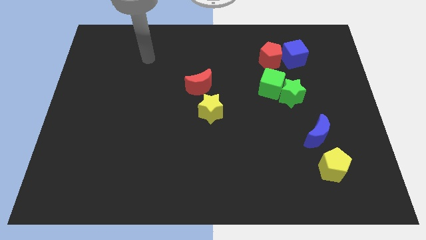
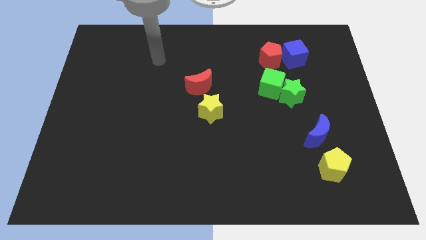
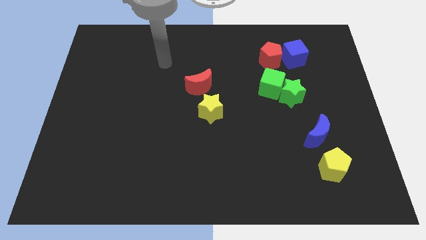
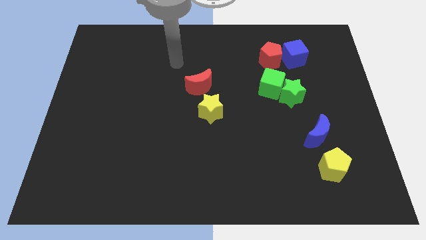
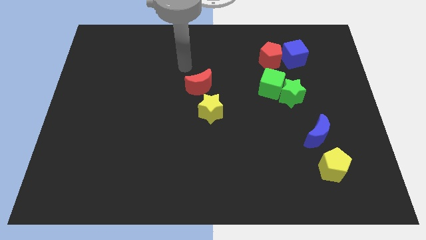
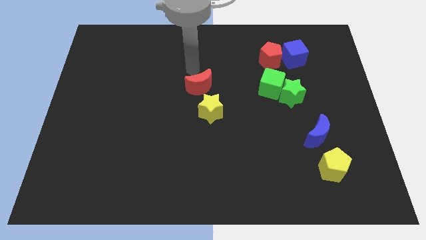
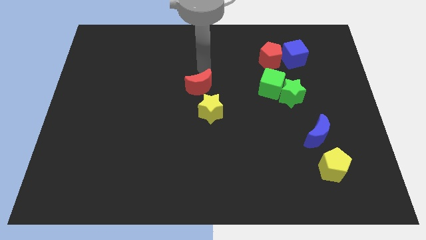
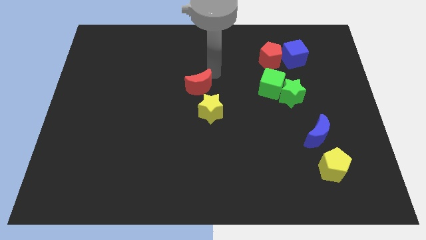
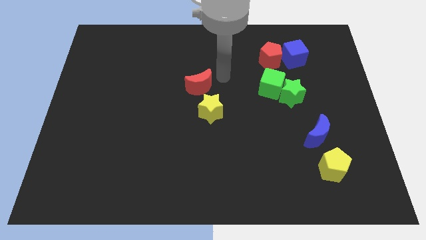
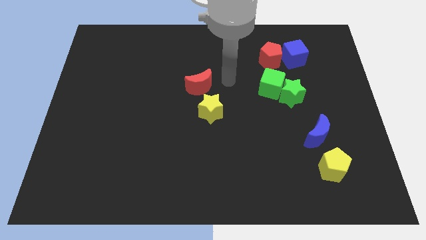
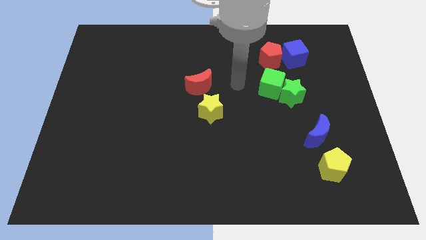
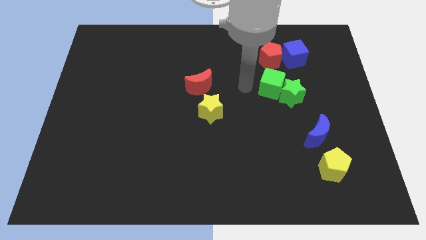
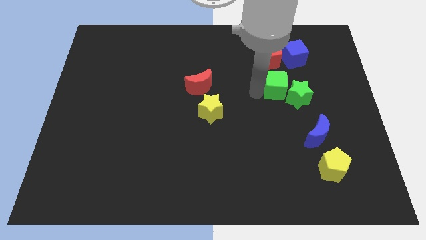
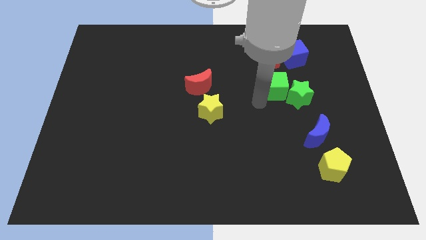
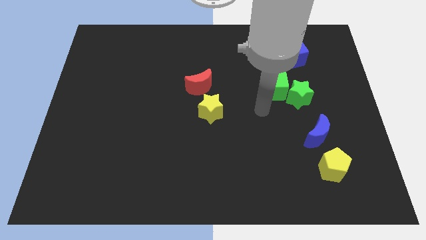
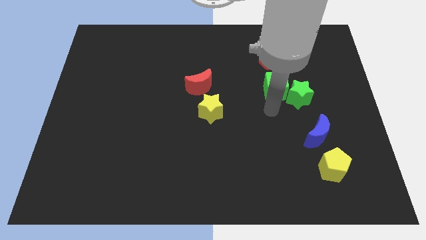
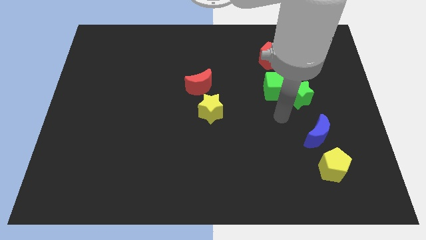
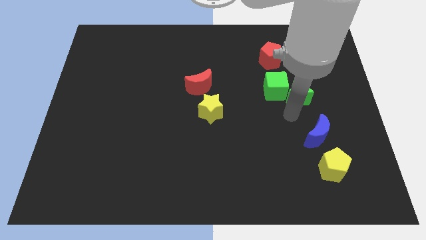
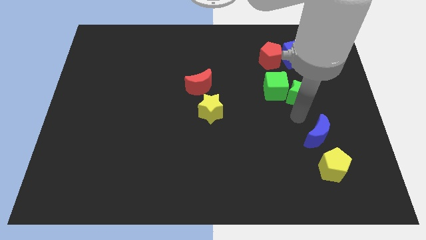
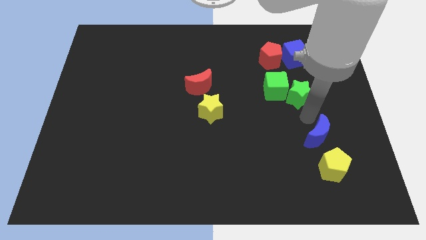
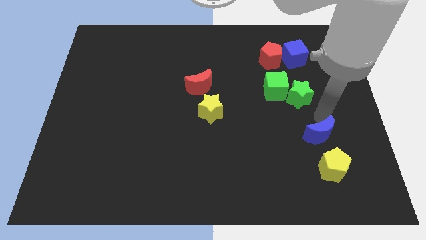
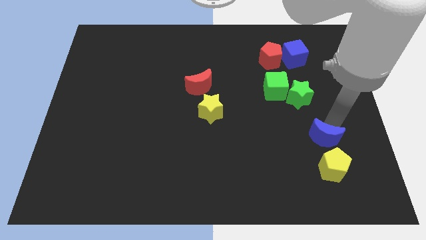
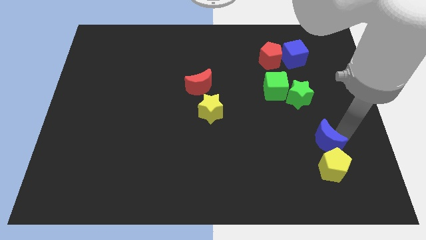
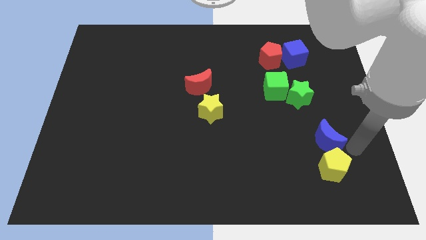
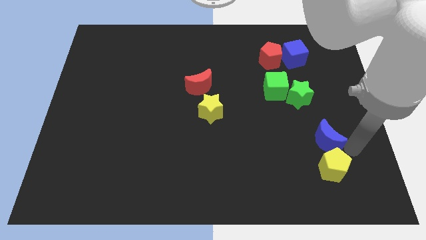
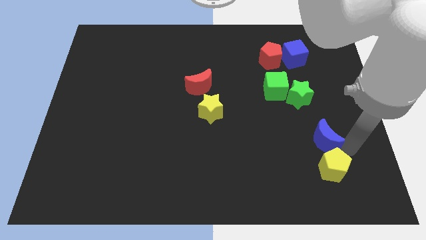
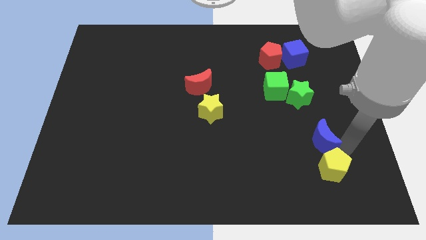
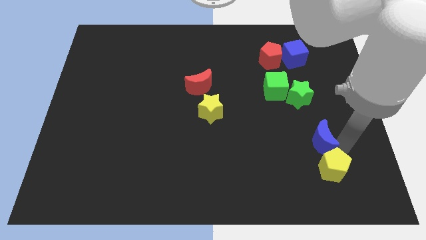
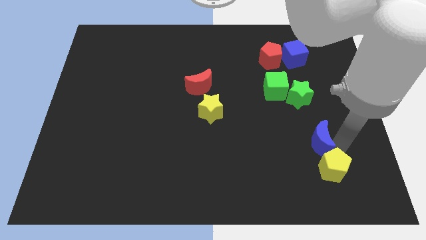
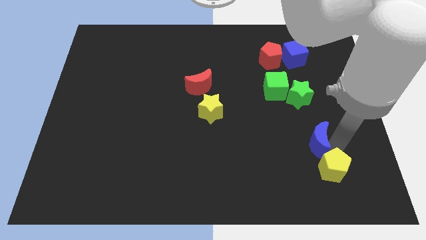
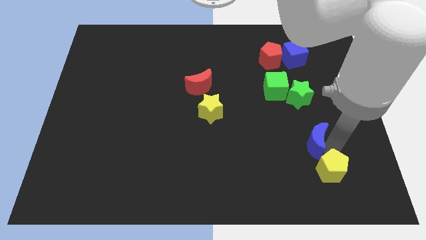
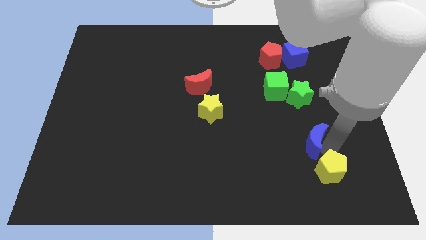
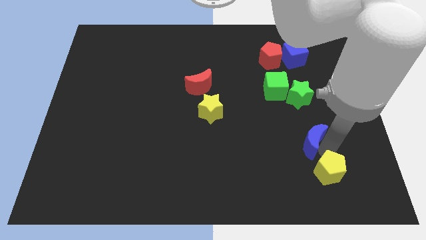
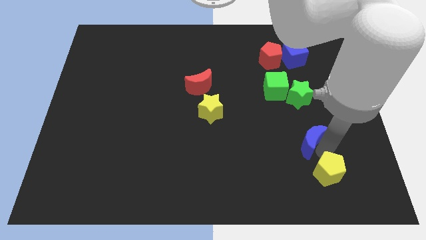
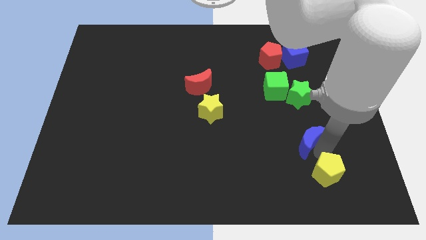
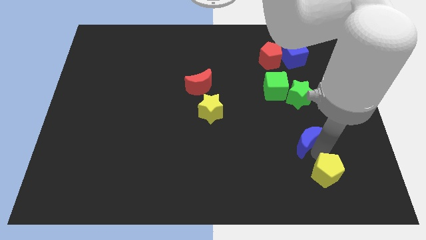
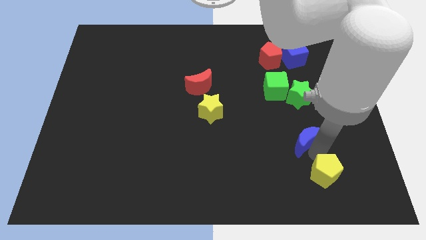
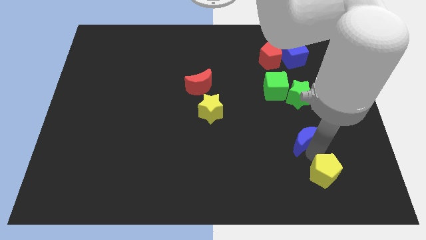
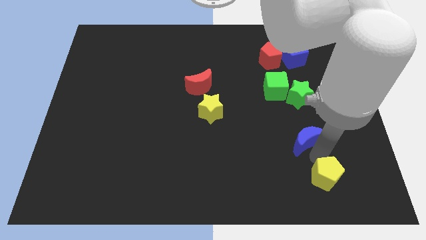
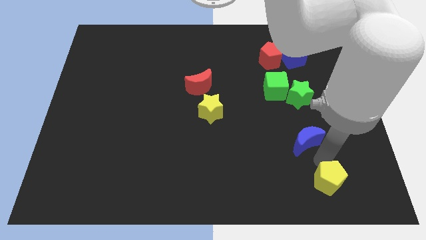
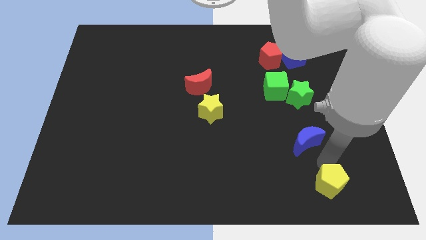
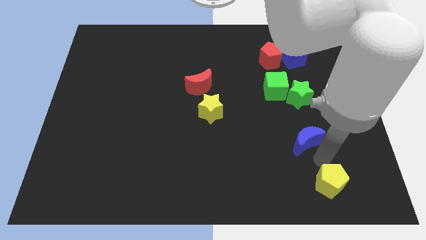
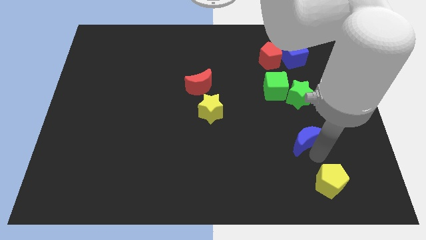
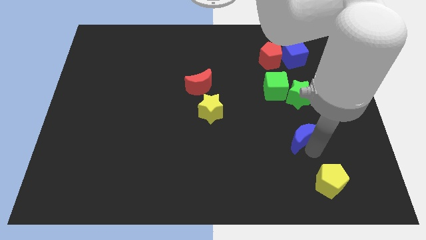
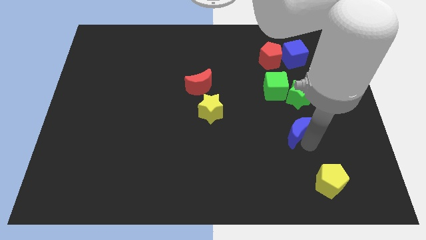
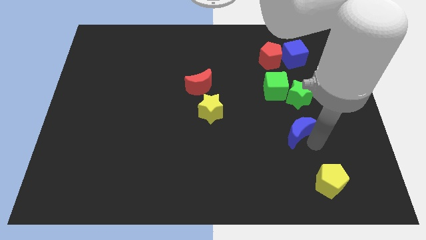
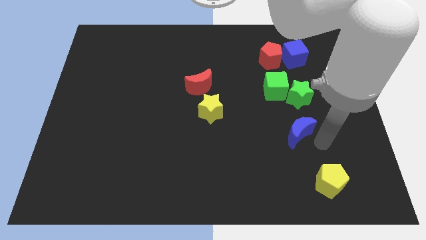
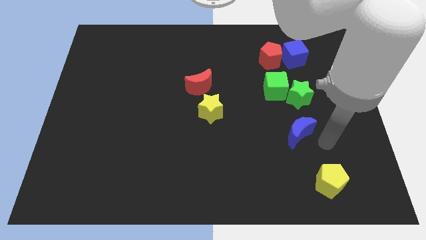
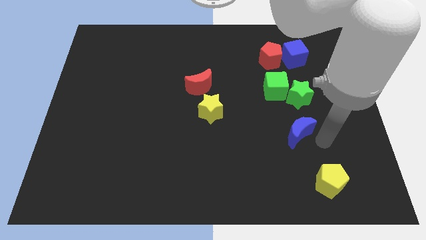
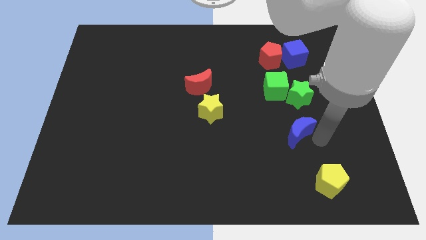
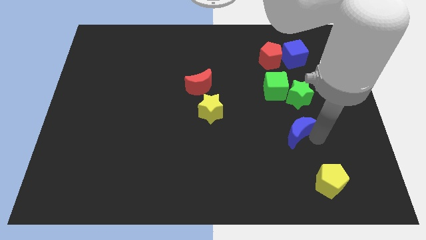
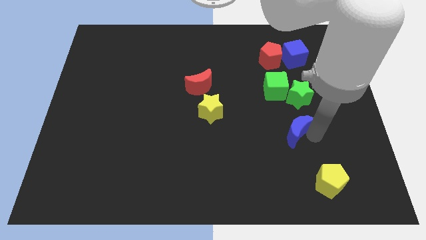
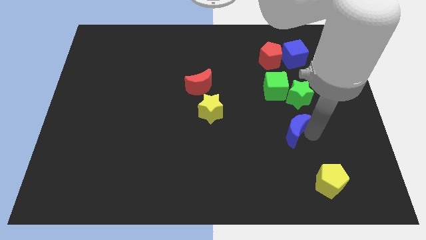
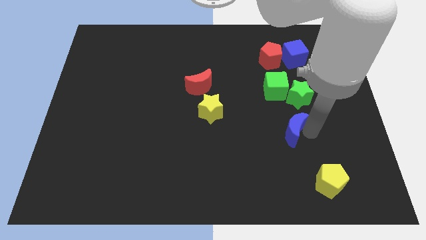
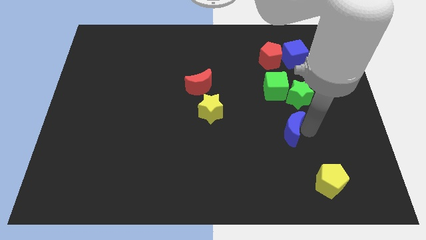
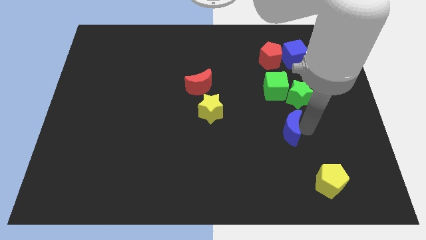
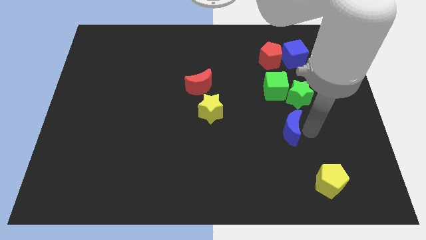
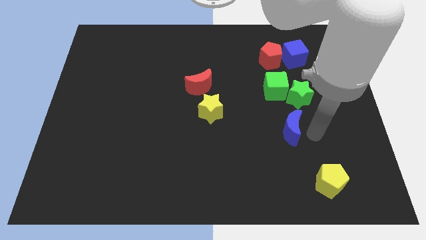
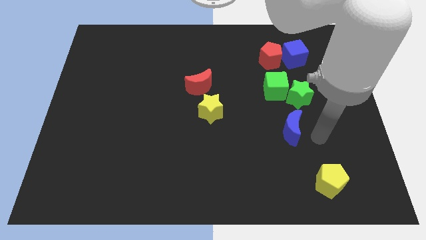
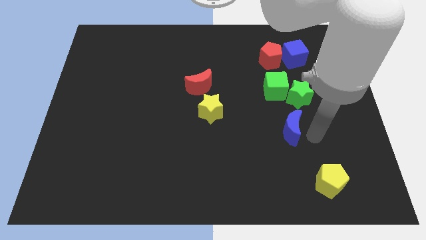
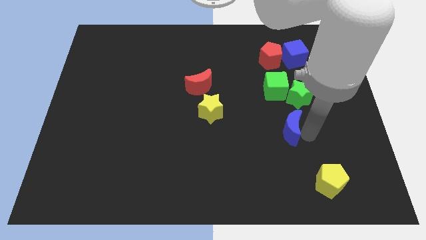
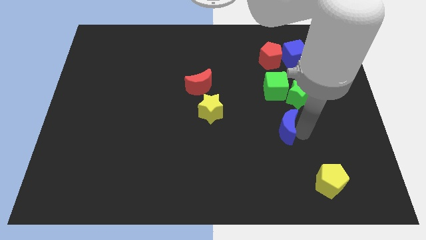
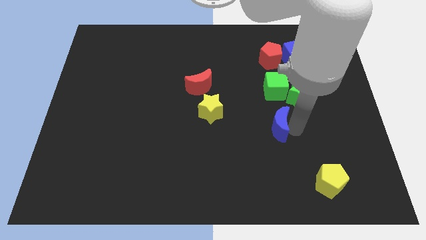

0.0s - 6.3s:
slightly push the blue moon to the left

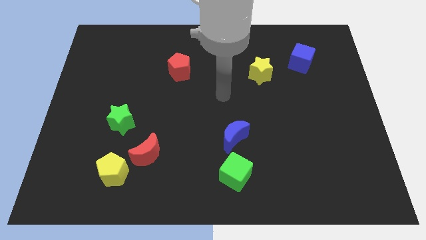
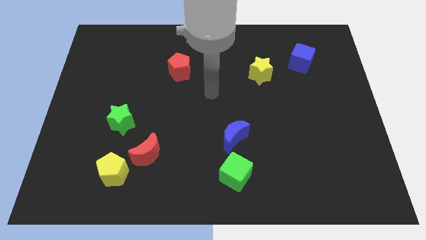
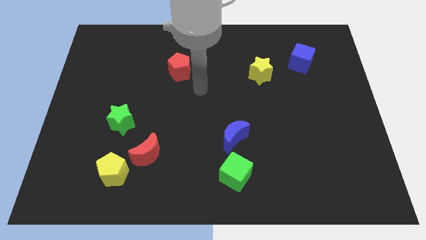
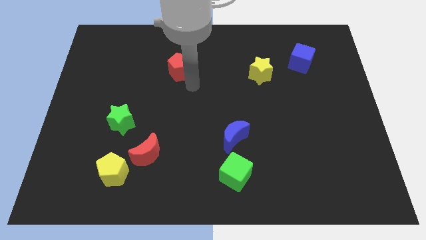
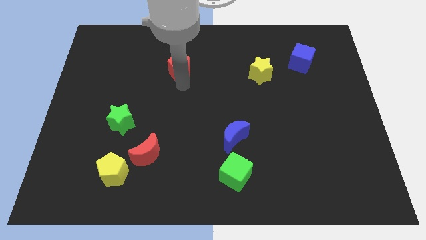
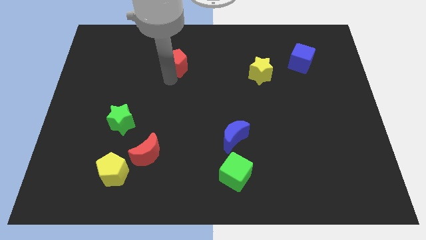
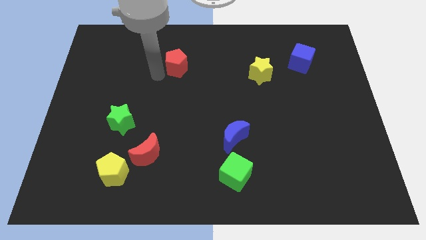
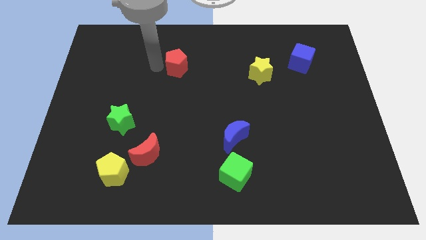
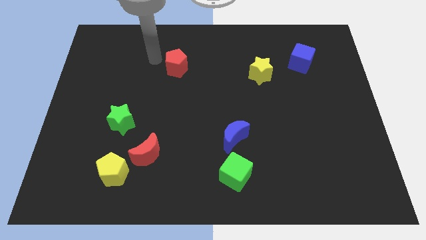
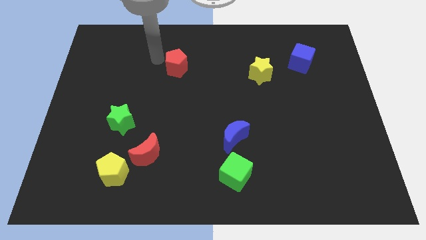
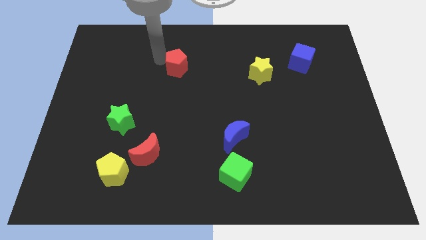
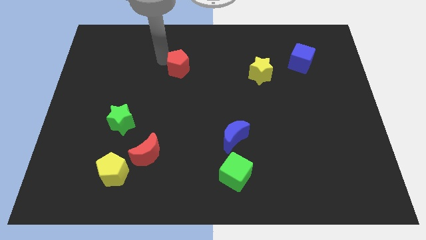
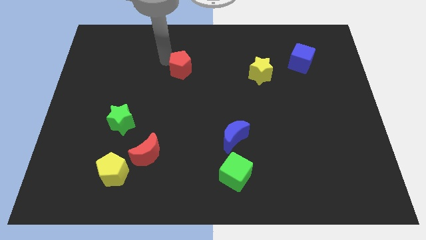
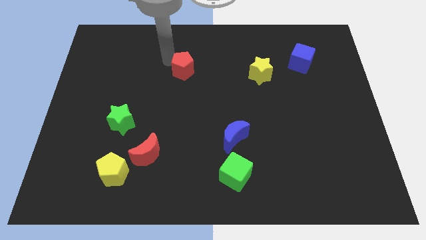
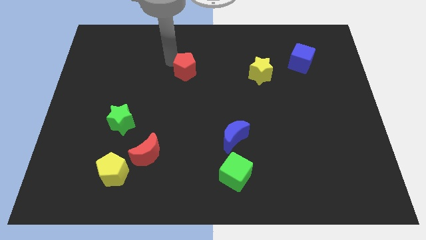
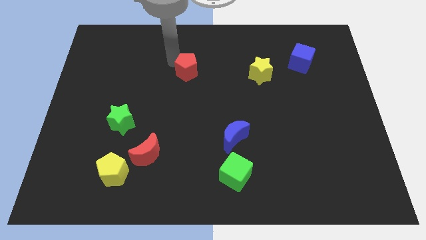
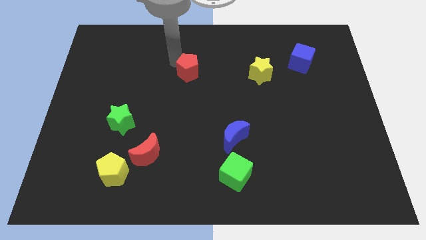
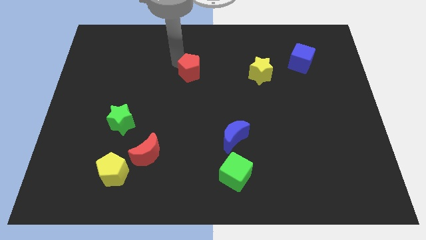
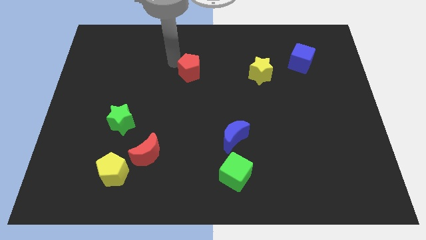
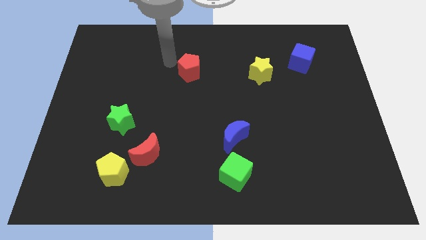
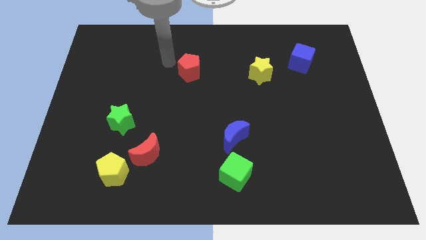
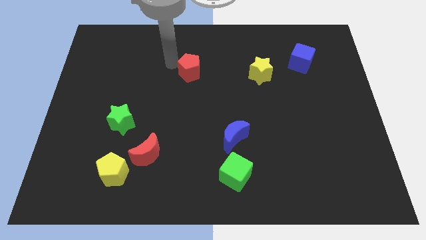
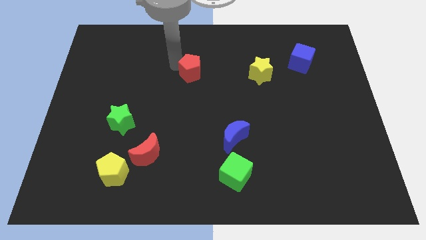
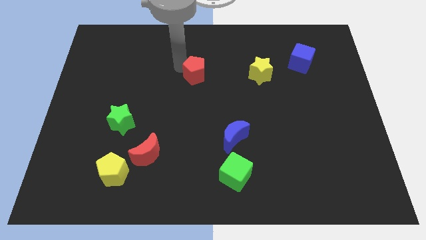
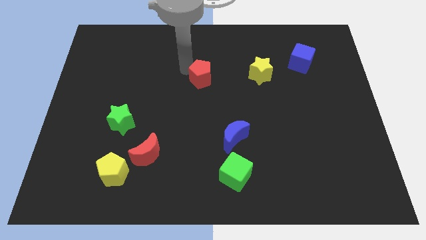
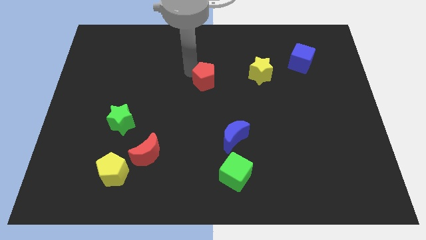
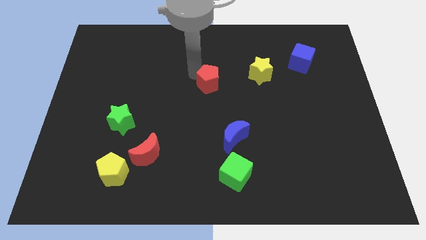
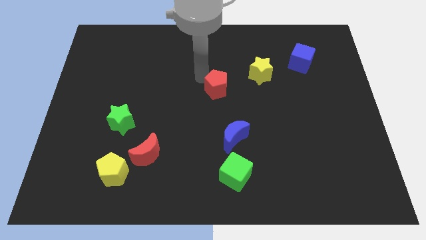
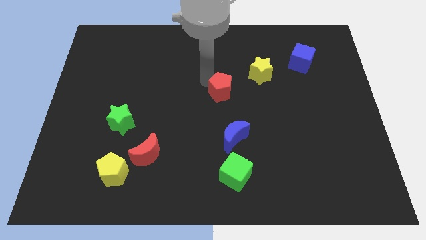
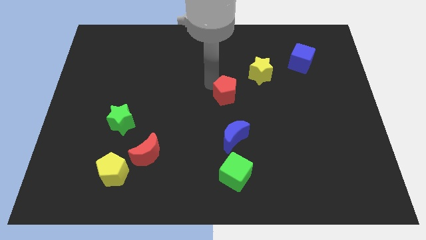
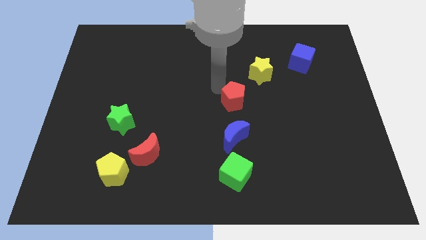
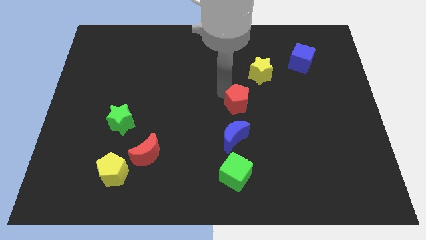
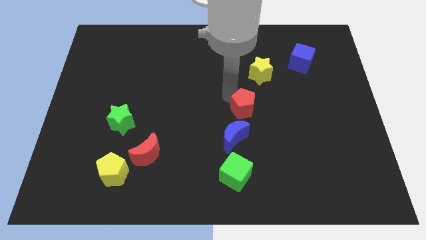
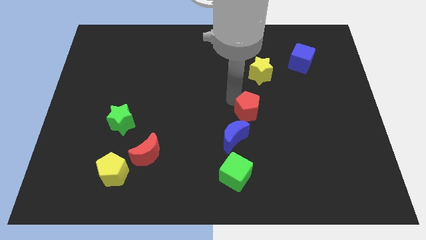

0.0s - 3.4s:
push the red pentagon diagonally down and right
